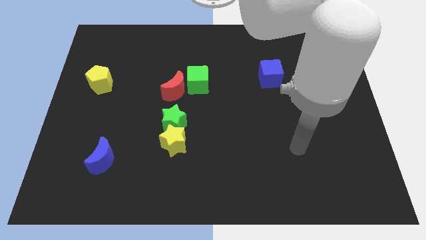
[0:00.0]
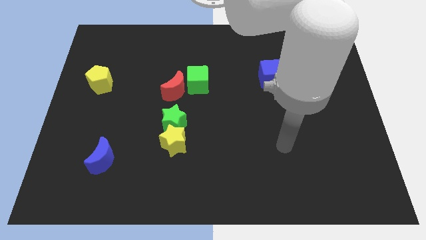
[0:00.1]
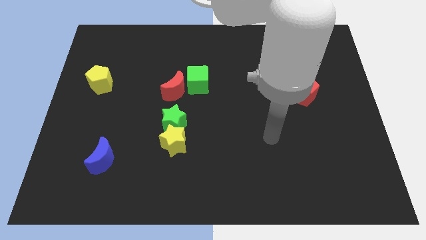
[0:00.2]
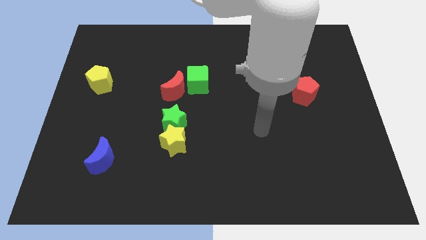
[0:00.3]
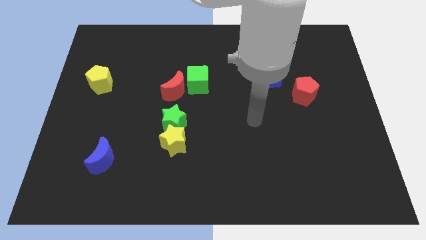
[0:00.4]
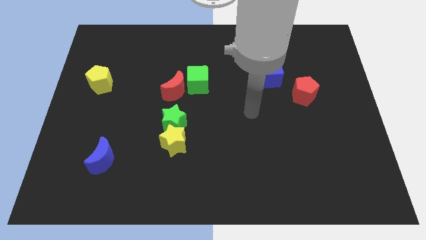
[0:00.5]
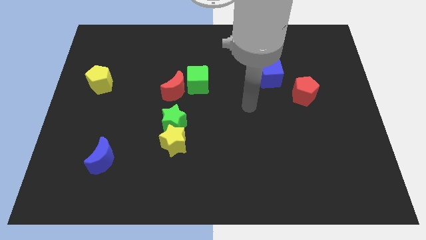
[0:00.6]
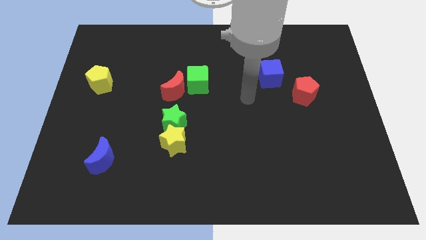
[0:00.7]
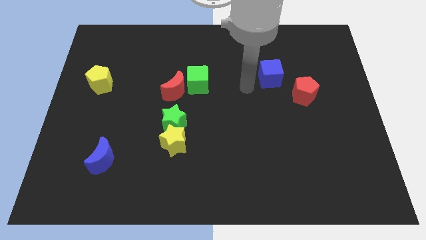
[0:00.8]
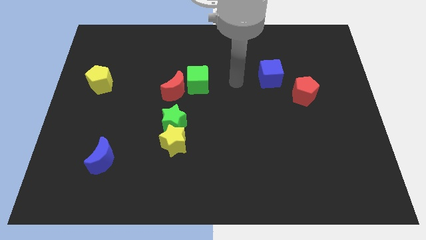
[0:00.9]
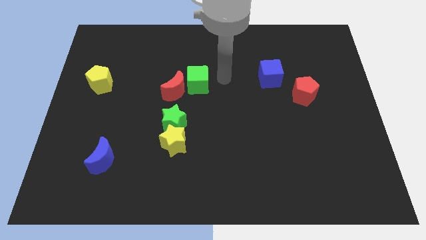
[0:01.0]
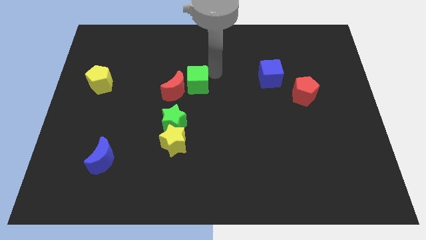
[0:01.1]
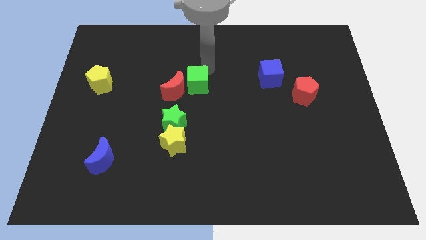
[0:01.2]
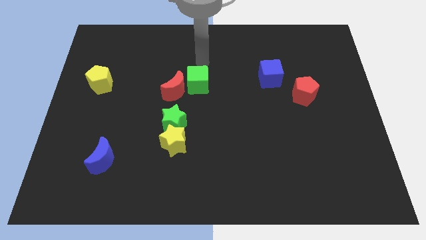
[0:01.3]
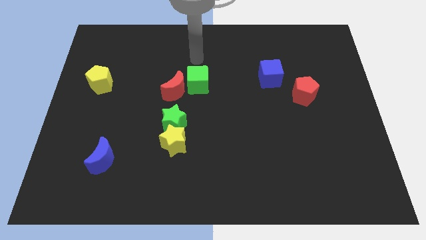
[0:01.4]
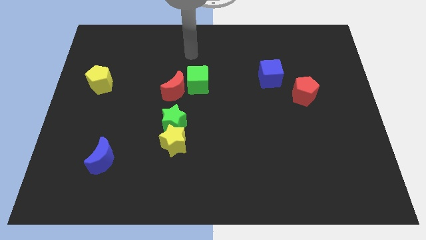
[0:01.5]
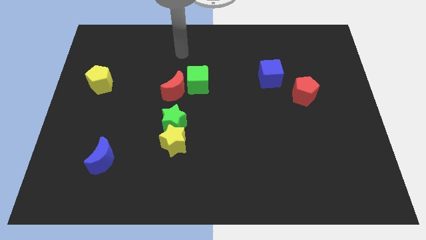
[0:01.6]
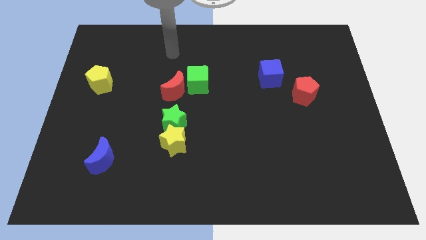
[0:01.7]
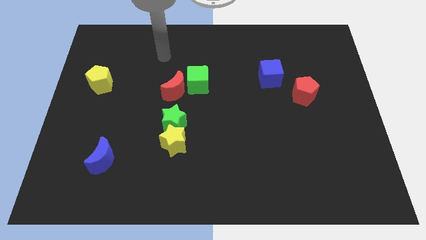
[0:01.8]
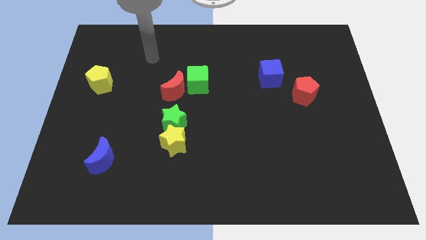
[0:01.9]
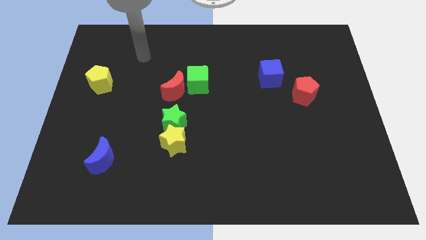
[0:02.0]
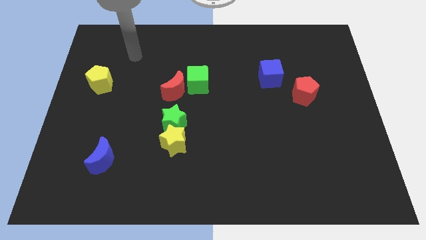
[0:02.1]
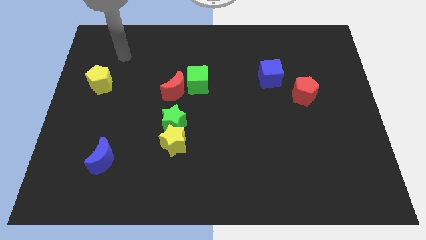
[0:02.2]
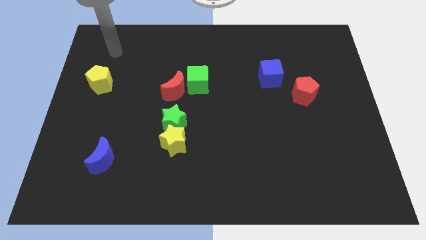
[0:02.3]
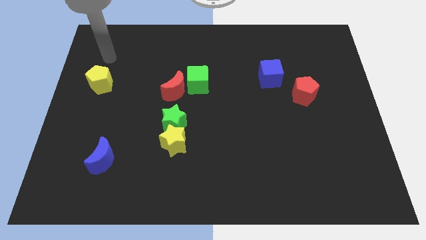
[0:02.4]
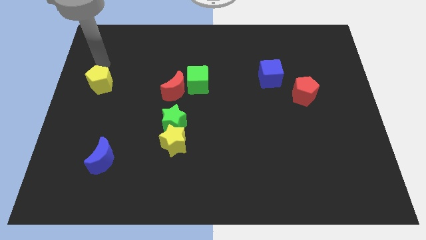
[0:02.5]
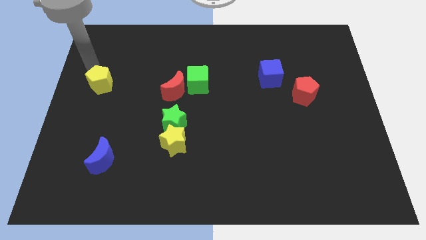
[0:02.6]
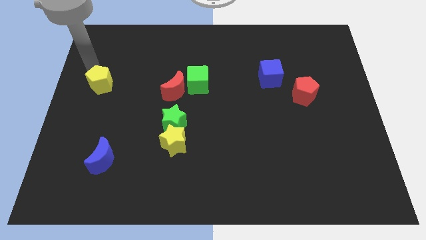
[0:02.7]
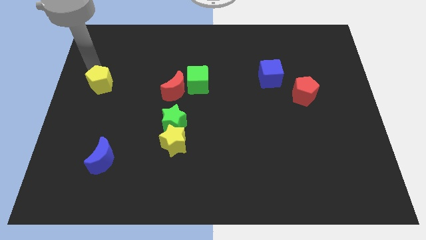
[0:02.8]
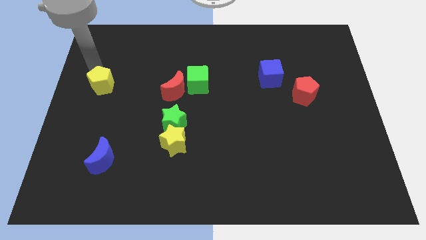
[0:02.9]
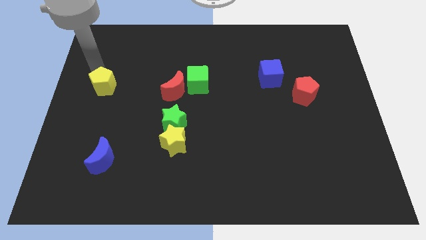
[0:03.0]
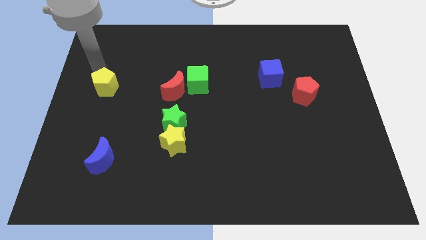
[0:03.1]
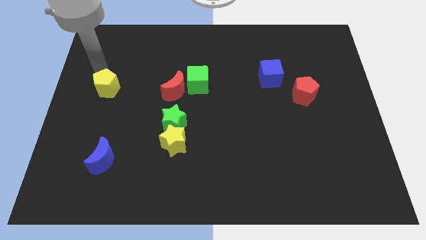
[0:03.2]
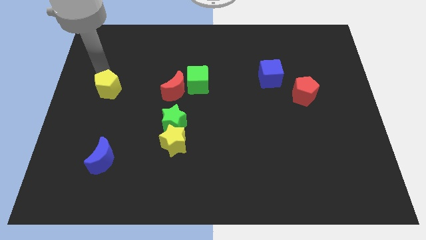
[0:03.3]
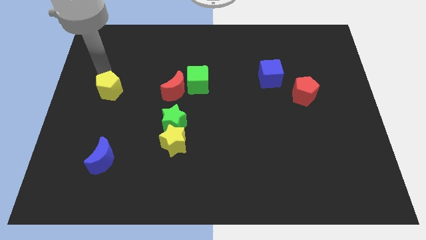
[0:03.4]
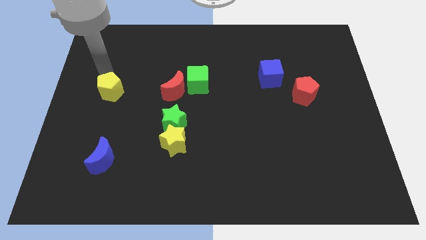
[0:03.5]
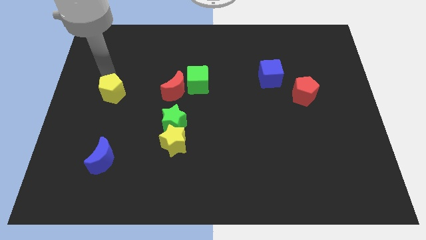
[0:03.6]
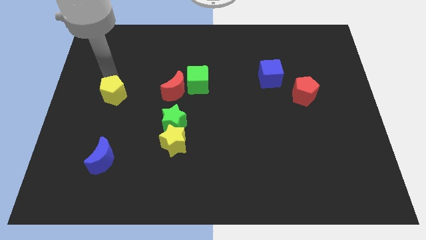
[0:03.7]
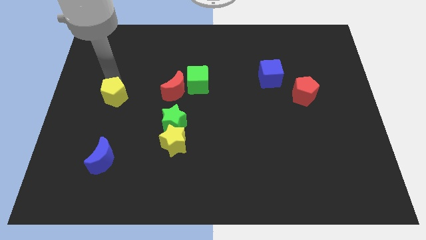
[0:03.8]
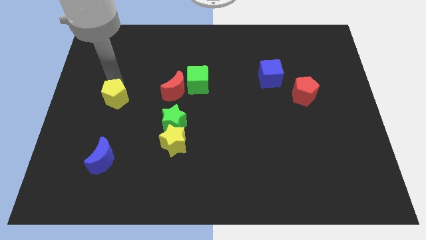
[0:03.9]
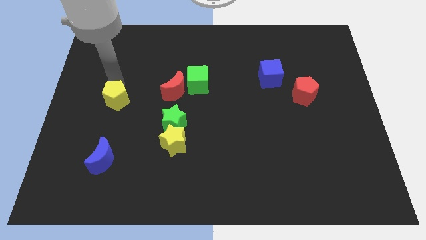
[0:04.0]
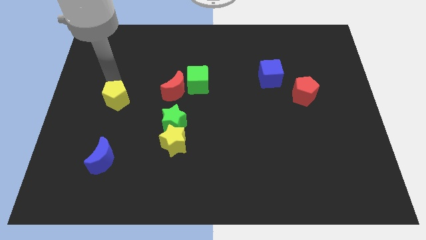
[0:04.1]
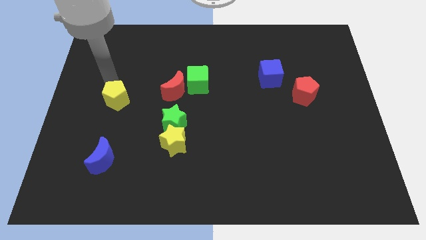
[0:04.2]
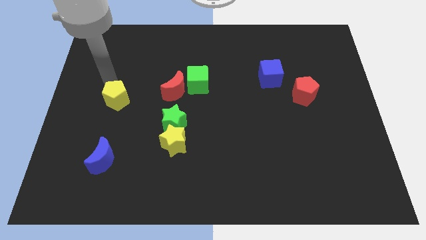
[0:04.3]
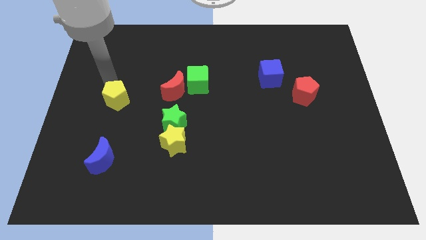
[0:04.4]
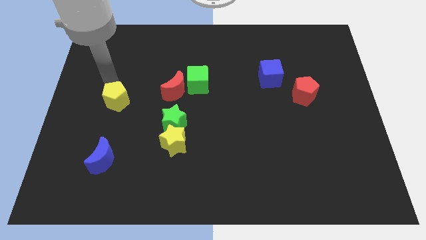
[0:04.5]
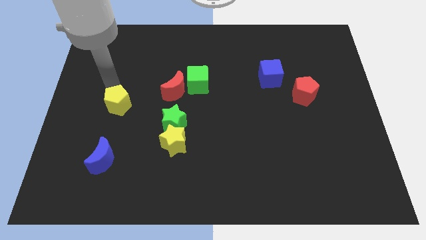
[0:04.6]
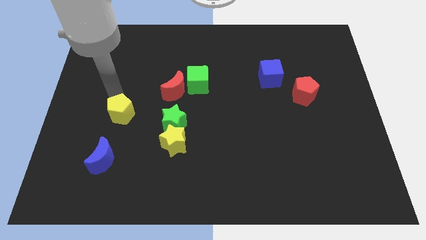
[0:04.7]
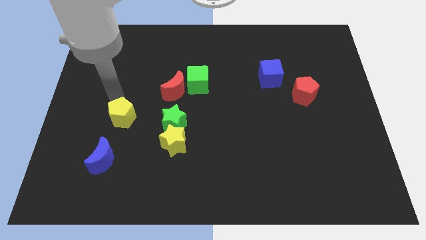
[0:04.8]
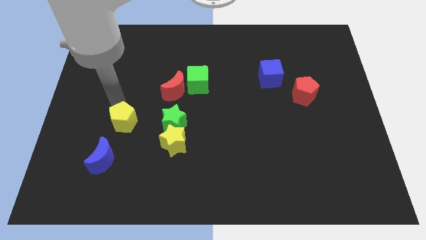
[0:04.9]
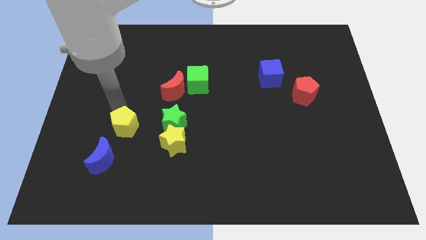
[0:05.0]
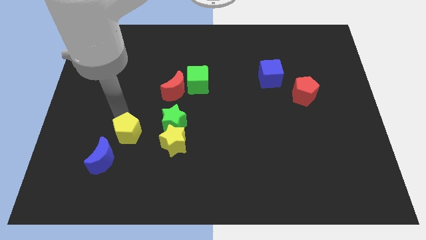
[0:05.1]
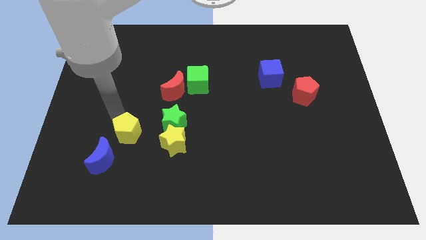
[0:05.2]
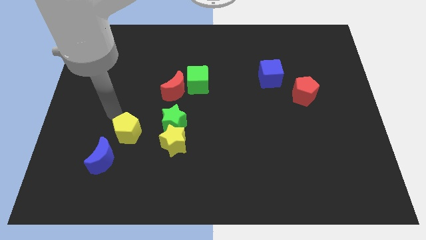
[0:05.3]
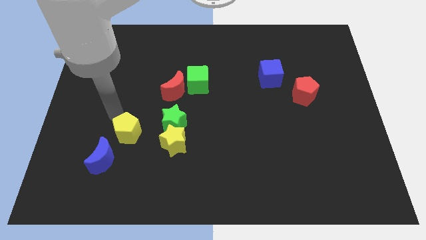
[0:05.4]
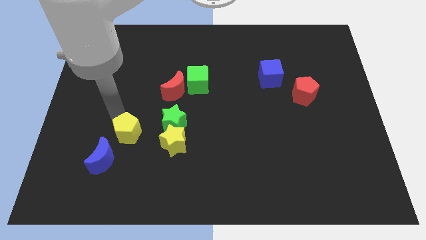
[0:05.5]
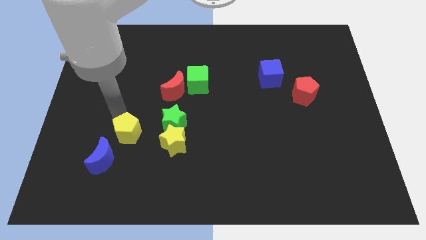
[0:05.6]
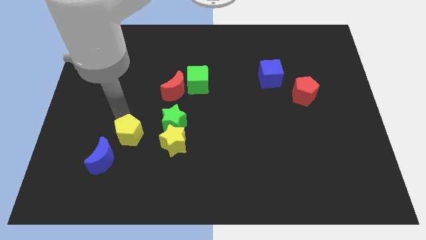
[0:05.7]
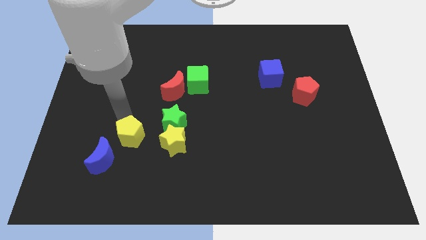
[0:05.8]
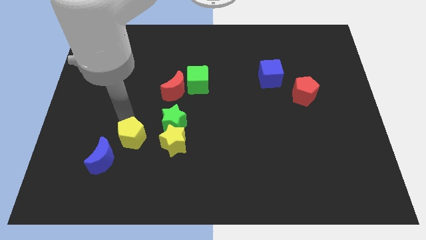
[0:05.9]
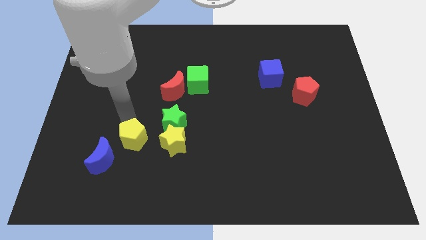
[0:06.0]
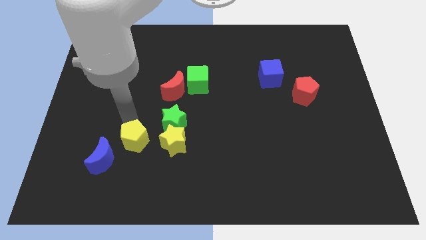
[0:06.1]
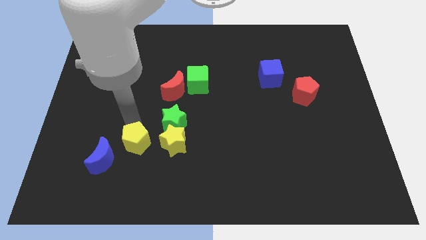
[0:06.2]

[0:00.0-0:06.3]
slide the yellow pentagon right of the blue moon

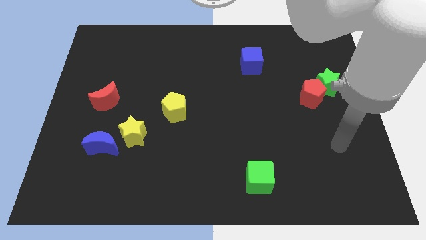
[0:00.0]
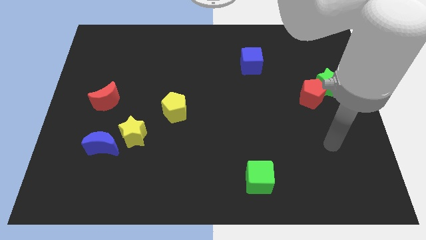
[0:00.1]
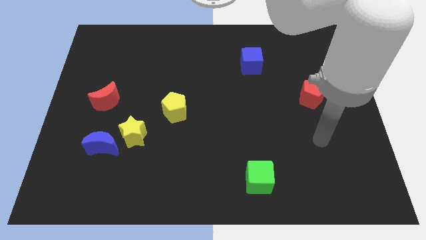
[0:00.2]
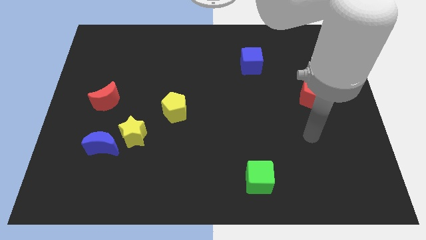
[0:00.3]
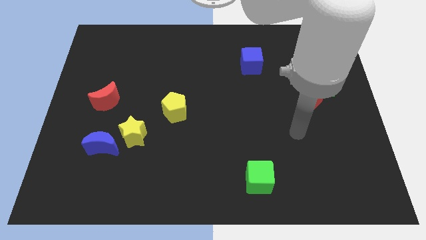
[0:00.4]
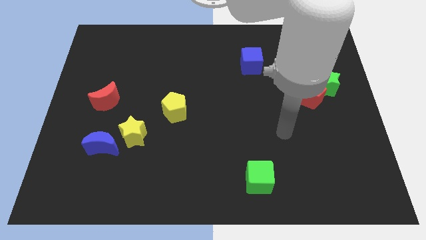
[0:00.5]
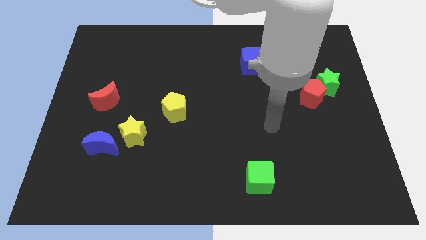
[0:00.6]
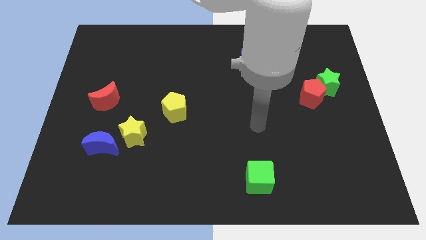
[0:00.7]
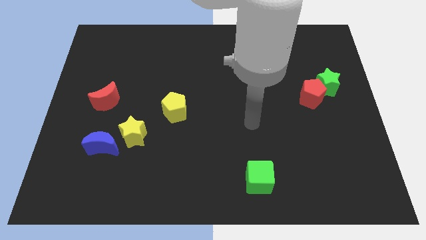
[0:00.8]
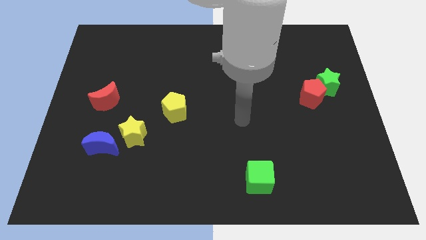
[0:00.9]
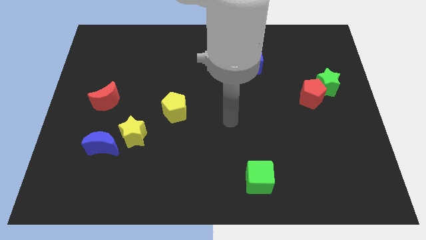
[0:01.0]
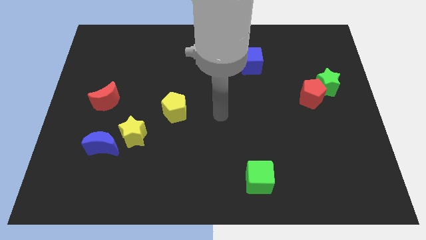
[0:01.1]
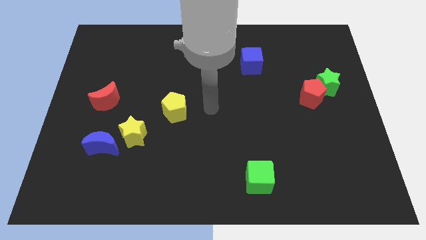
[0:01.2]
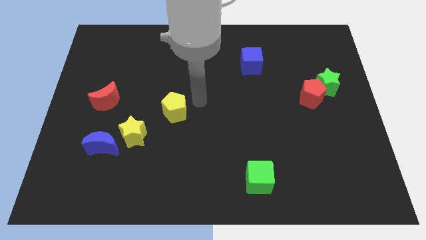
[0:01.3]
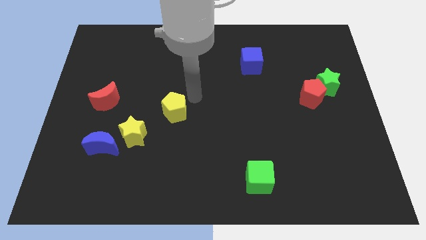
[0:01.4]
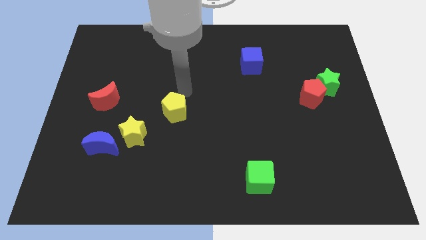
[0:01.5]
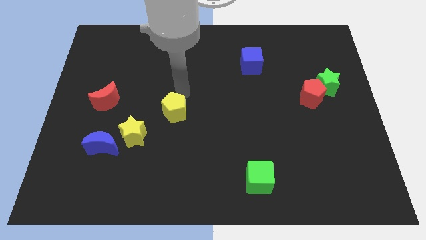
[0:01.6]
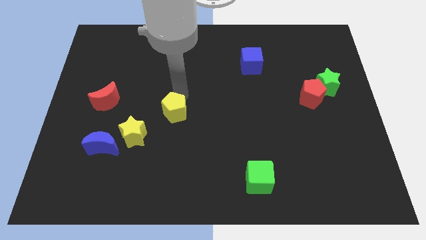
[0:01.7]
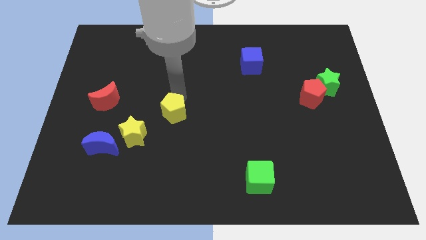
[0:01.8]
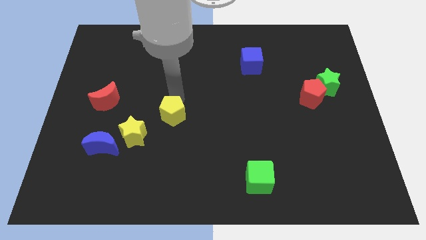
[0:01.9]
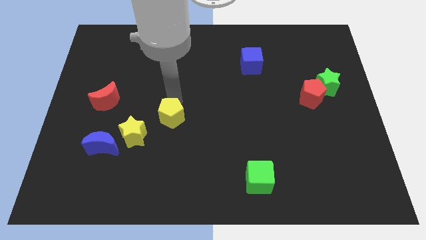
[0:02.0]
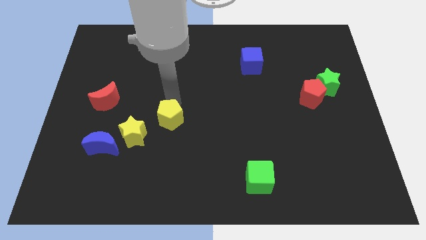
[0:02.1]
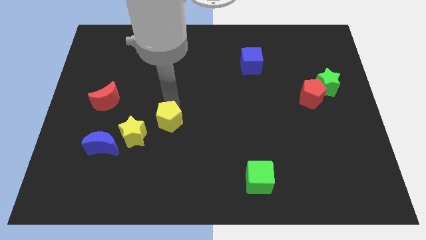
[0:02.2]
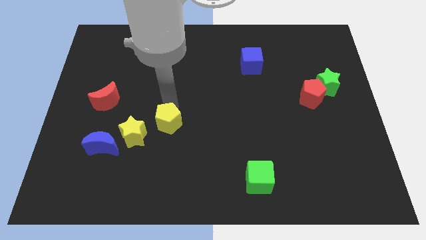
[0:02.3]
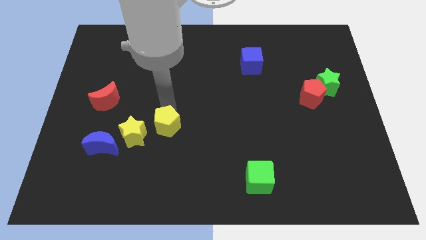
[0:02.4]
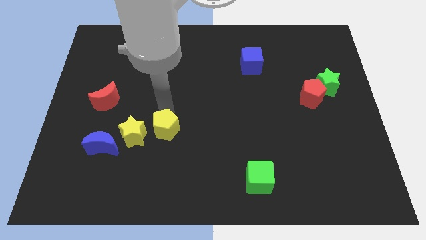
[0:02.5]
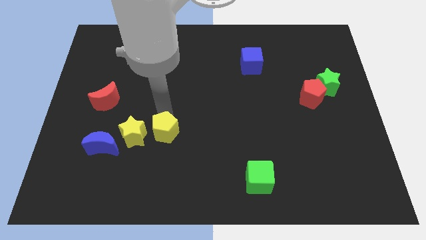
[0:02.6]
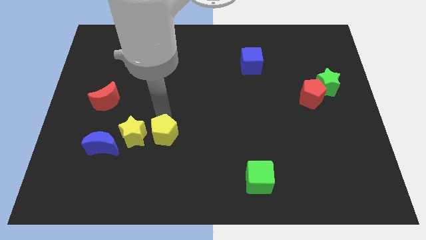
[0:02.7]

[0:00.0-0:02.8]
move the yellow pentagon diagonally down and to the right of the yellow star
